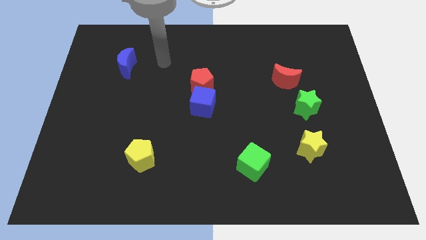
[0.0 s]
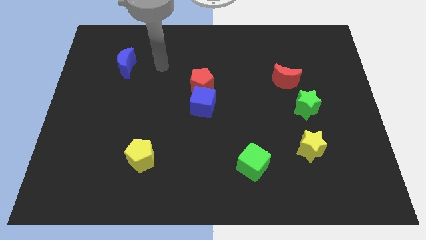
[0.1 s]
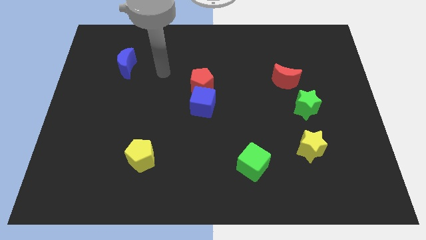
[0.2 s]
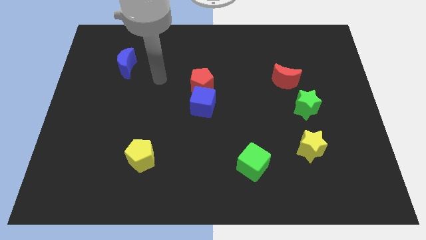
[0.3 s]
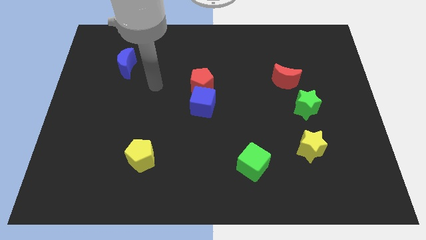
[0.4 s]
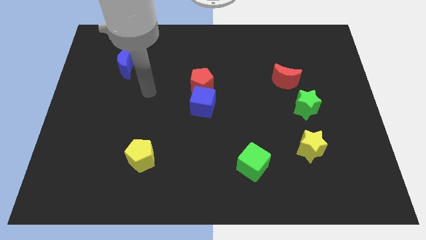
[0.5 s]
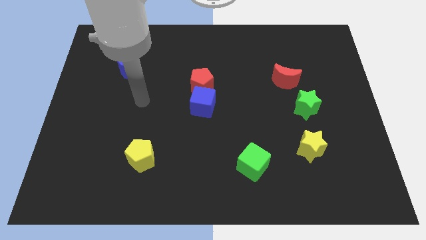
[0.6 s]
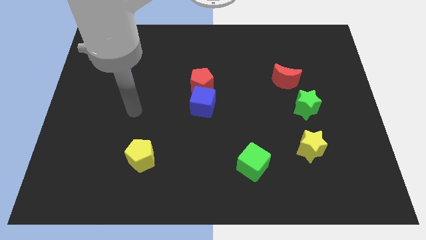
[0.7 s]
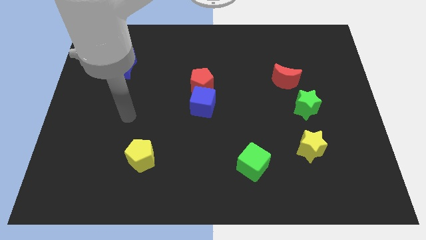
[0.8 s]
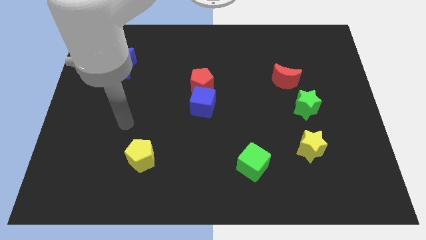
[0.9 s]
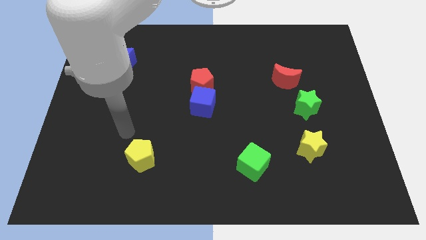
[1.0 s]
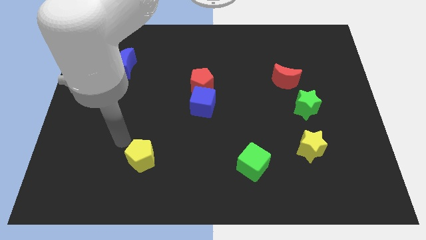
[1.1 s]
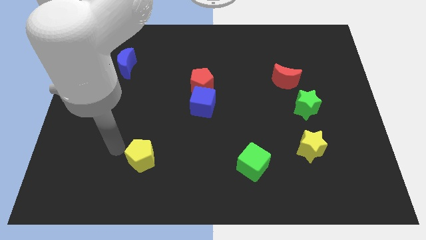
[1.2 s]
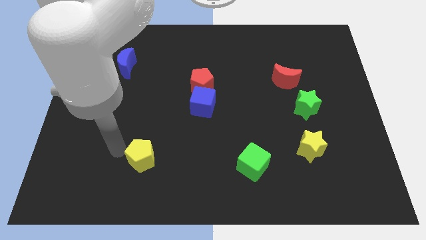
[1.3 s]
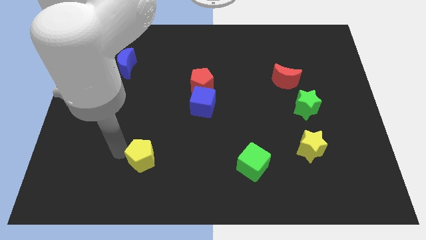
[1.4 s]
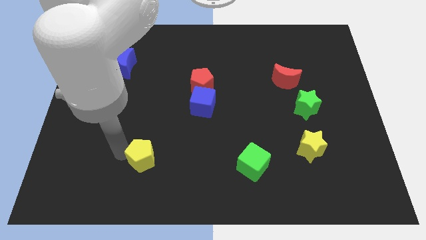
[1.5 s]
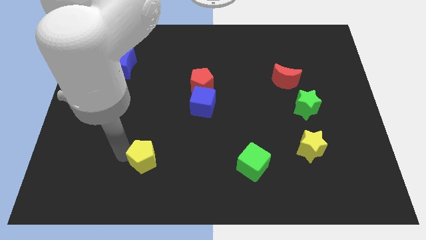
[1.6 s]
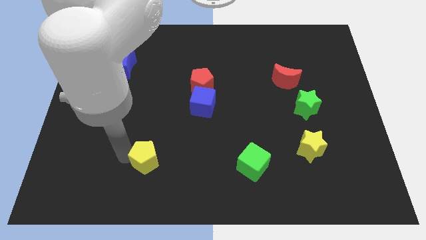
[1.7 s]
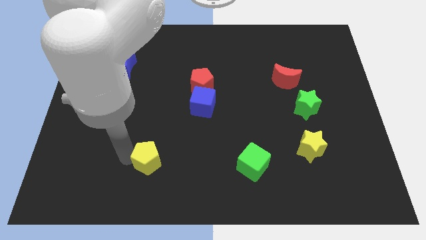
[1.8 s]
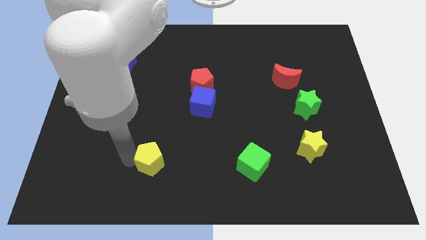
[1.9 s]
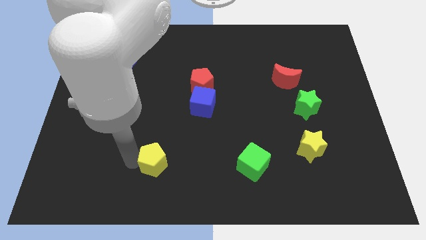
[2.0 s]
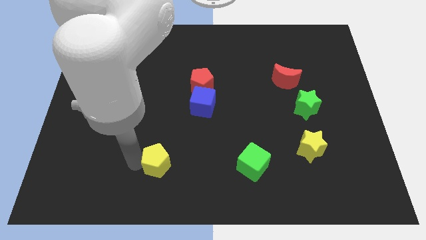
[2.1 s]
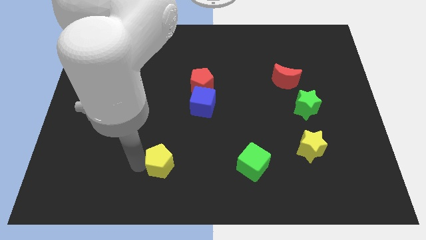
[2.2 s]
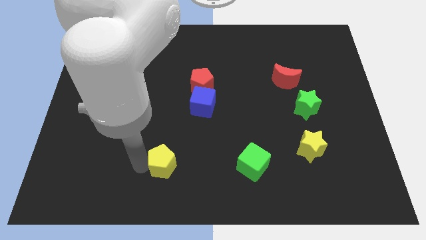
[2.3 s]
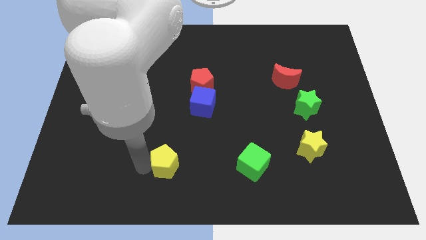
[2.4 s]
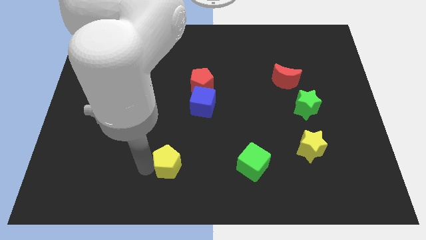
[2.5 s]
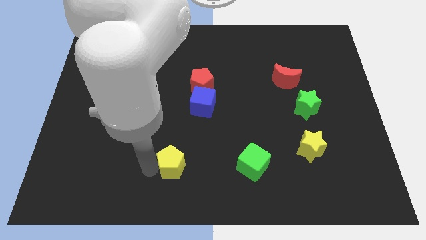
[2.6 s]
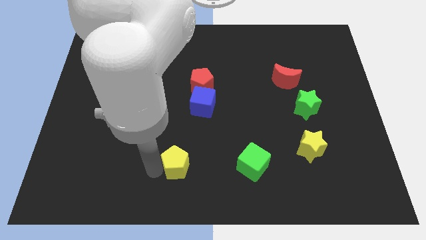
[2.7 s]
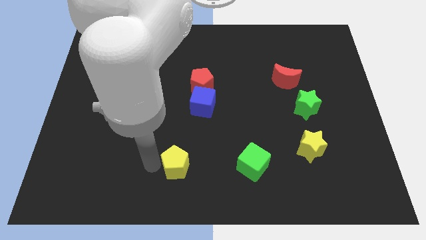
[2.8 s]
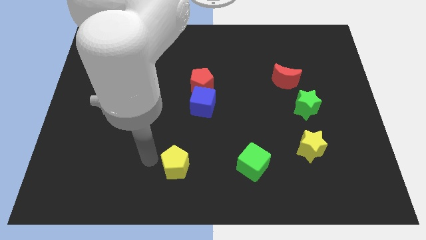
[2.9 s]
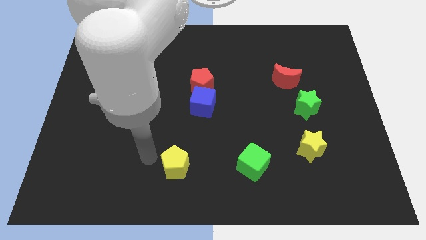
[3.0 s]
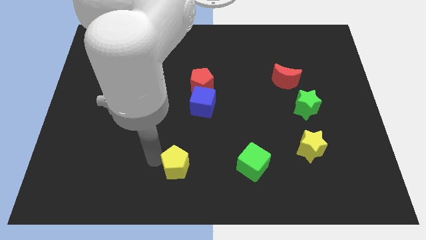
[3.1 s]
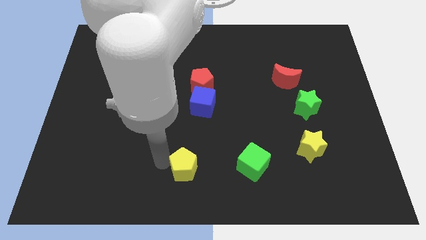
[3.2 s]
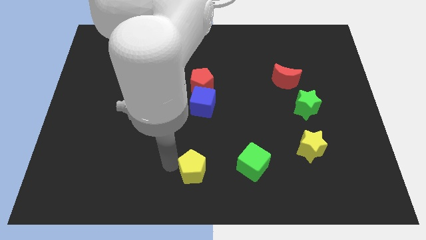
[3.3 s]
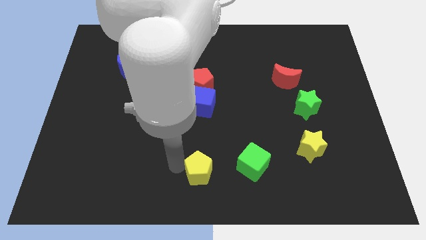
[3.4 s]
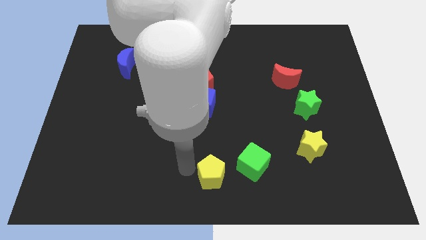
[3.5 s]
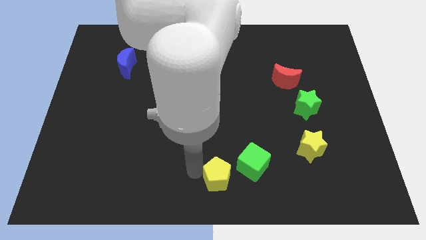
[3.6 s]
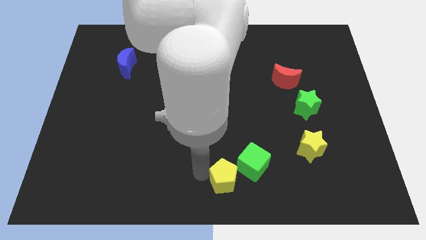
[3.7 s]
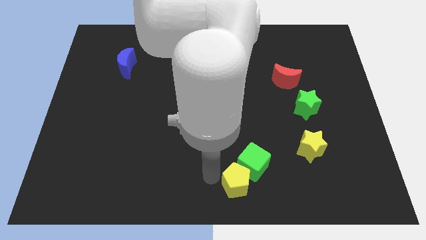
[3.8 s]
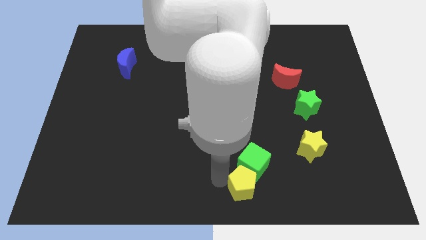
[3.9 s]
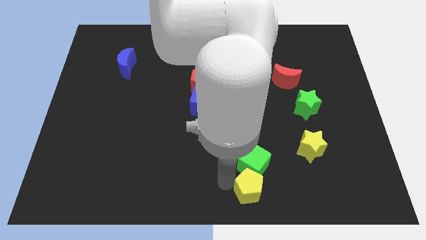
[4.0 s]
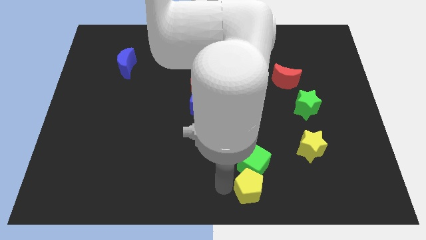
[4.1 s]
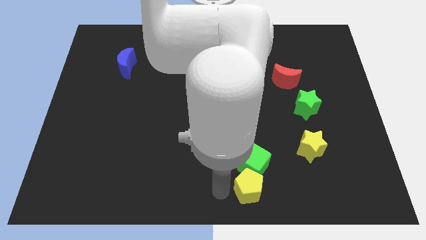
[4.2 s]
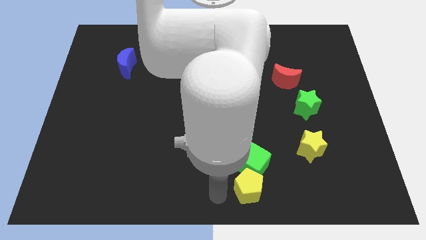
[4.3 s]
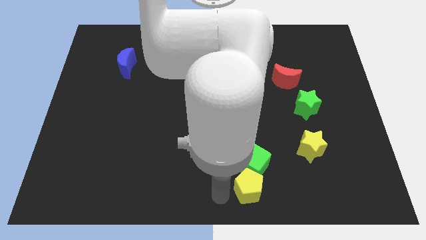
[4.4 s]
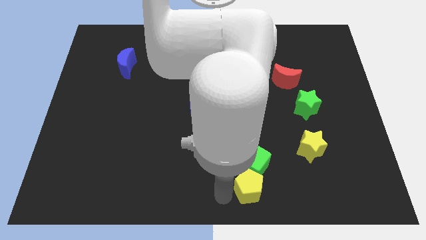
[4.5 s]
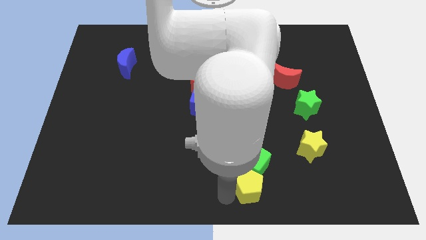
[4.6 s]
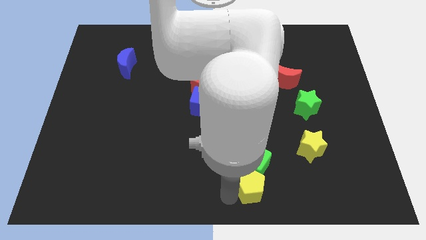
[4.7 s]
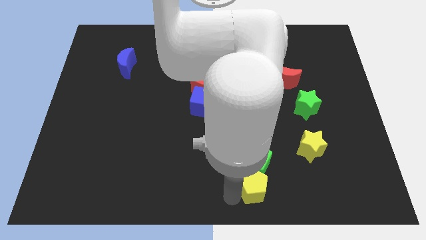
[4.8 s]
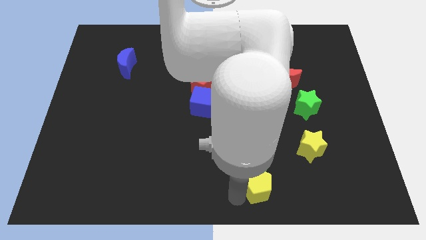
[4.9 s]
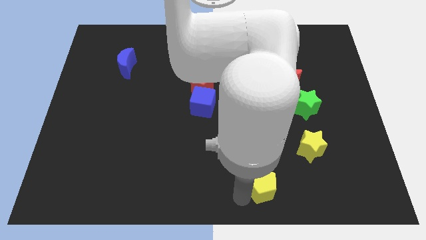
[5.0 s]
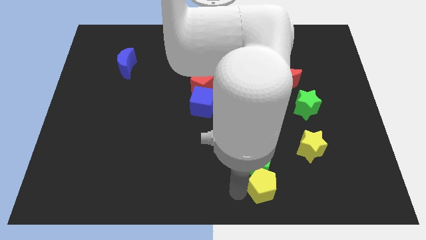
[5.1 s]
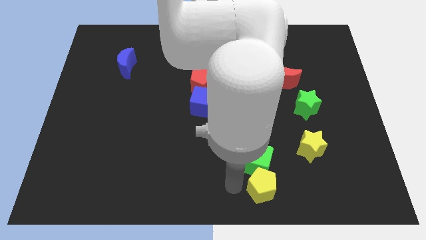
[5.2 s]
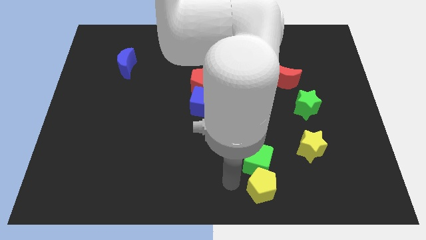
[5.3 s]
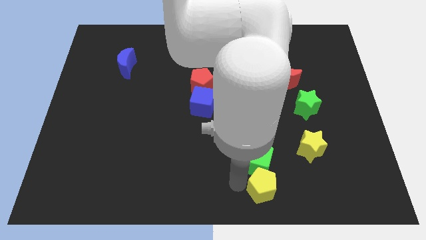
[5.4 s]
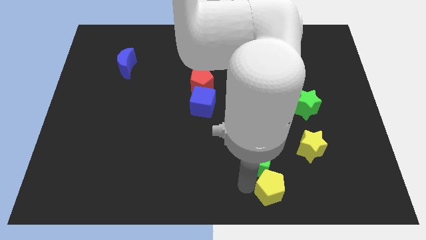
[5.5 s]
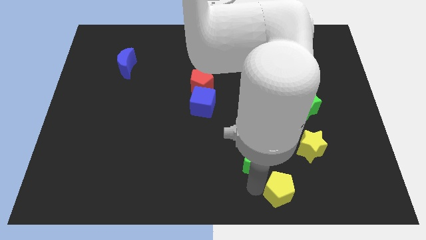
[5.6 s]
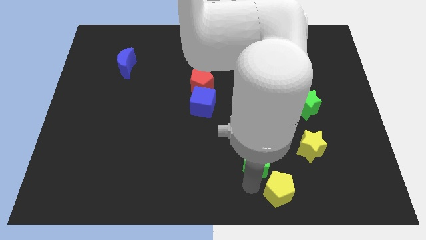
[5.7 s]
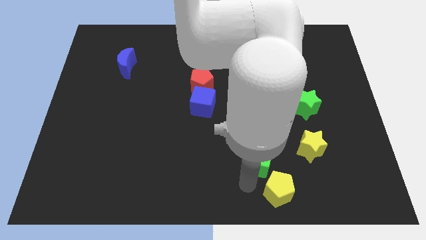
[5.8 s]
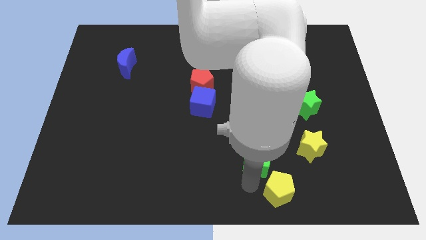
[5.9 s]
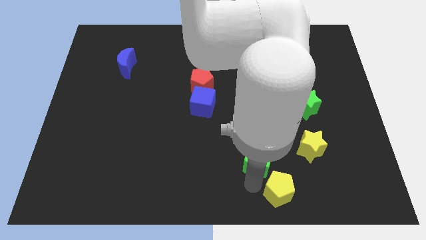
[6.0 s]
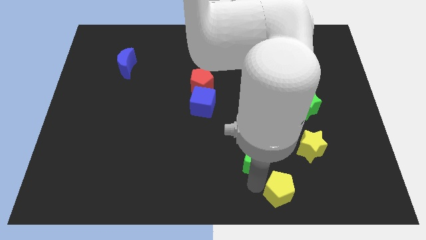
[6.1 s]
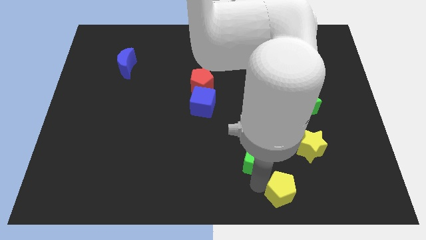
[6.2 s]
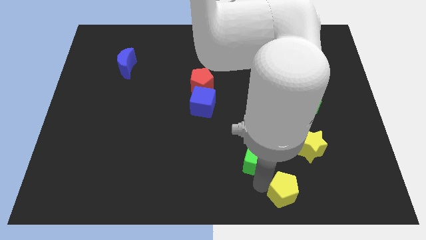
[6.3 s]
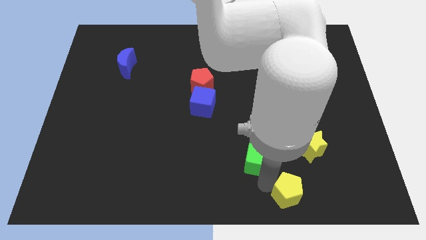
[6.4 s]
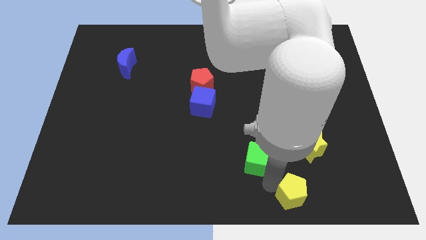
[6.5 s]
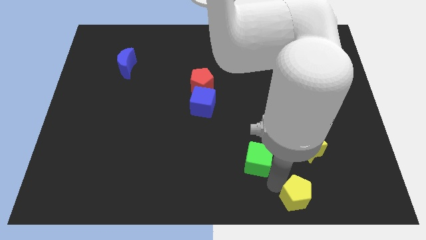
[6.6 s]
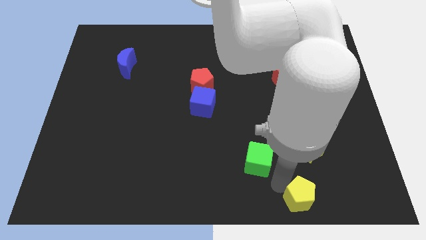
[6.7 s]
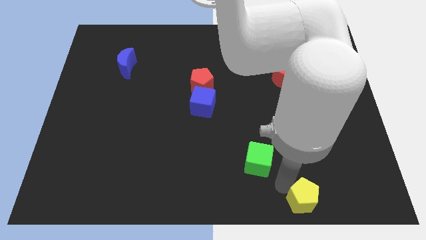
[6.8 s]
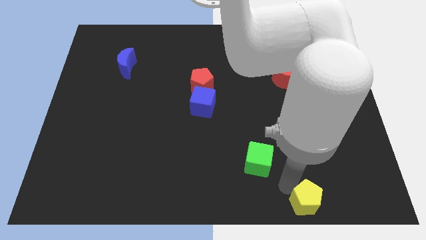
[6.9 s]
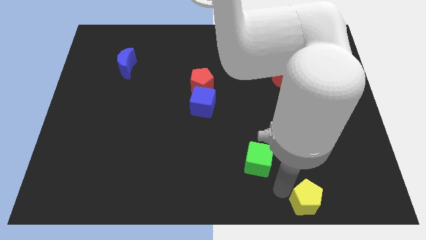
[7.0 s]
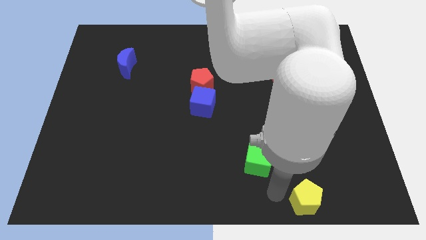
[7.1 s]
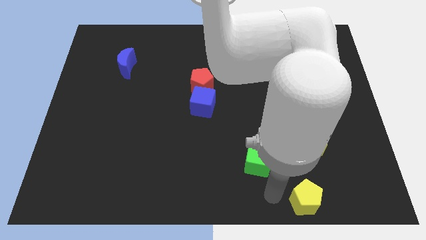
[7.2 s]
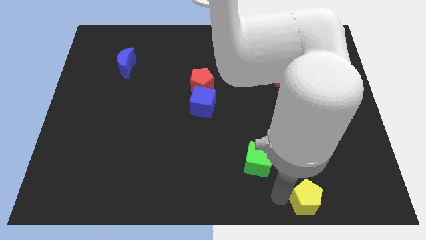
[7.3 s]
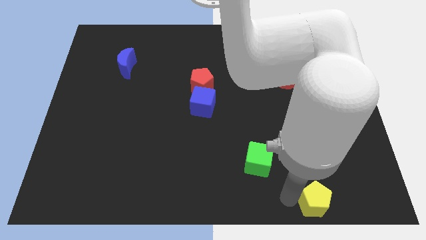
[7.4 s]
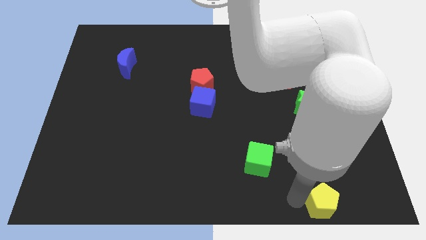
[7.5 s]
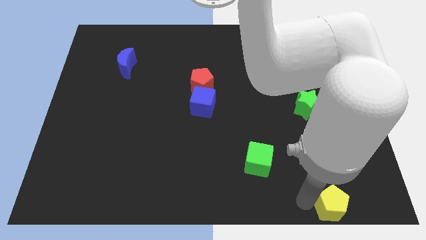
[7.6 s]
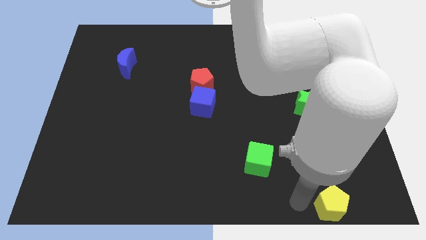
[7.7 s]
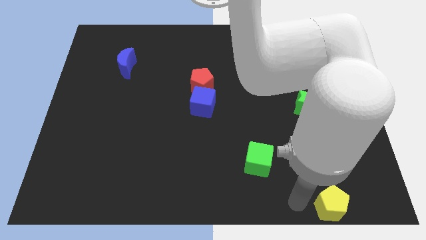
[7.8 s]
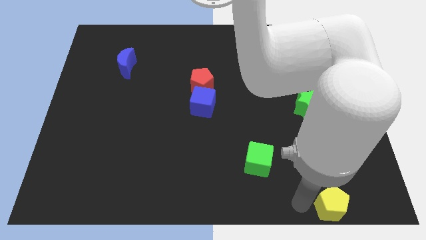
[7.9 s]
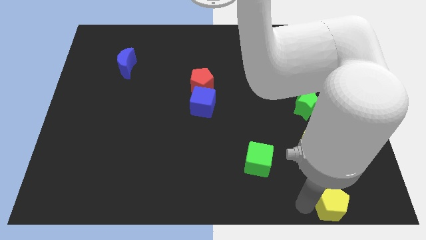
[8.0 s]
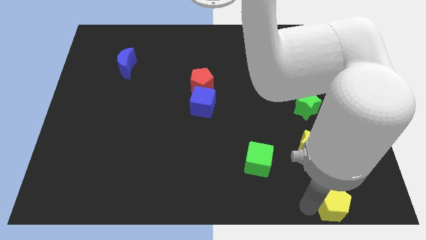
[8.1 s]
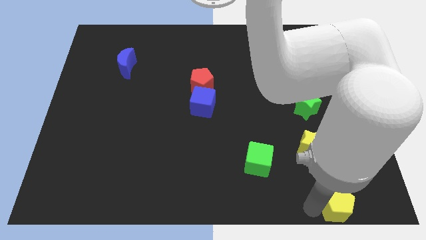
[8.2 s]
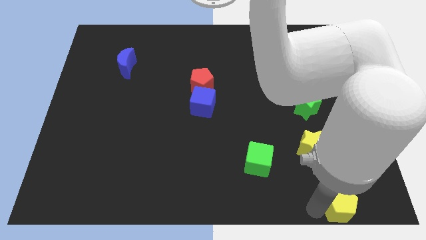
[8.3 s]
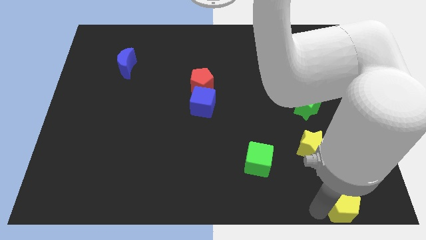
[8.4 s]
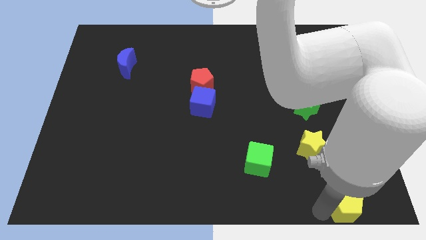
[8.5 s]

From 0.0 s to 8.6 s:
put the yellow pentagon to the bottom right
